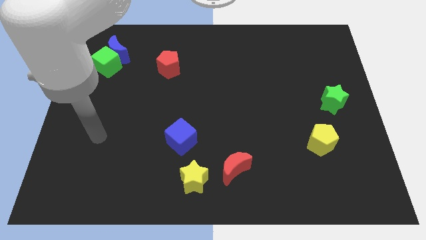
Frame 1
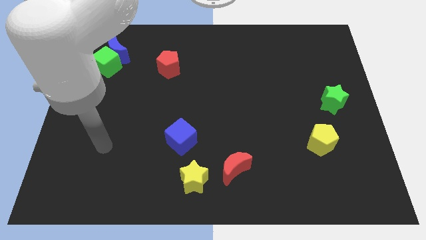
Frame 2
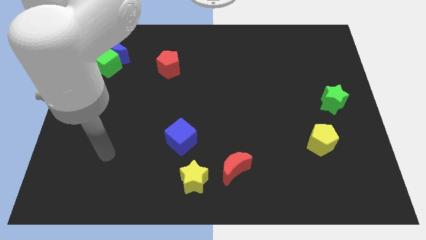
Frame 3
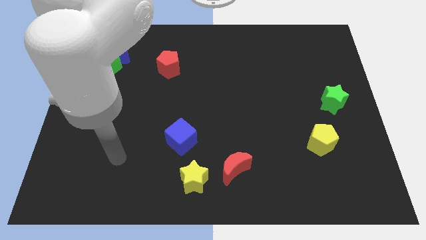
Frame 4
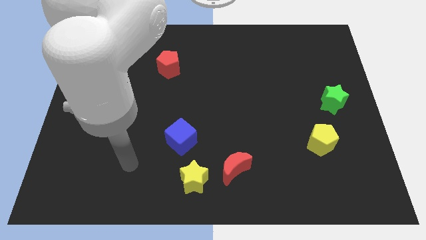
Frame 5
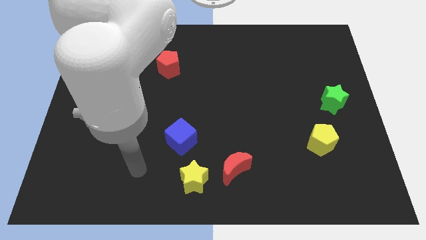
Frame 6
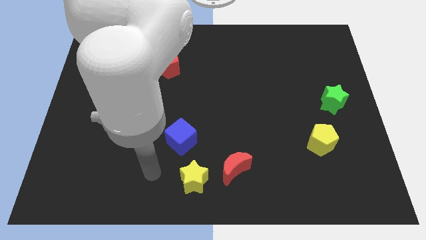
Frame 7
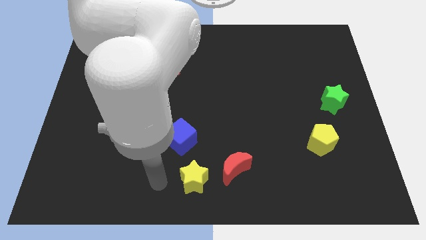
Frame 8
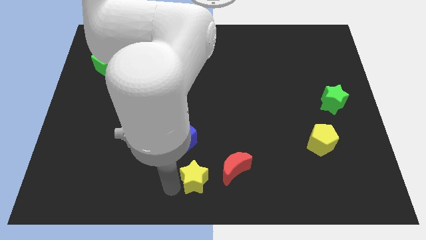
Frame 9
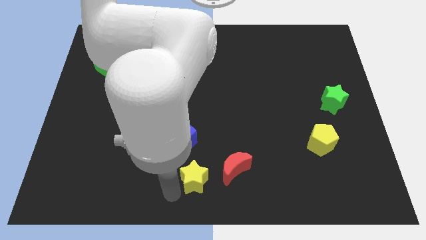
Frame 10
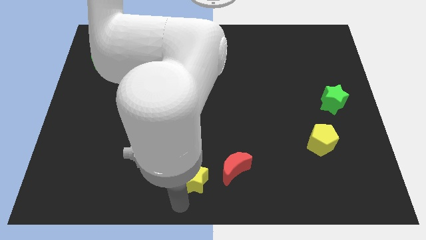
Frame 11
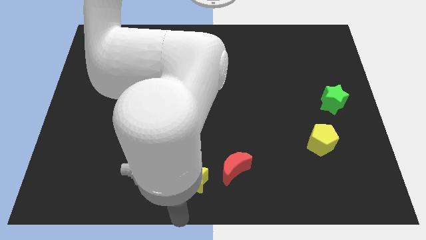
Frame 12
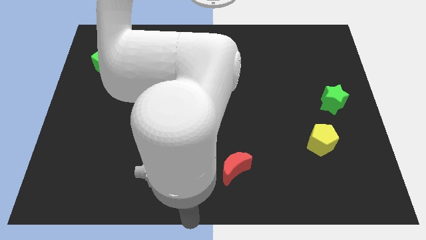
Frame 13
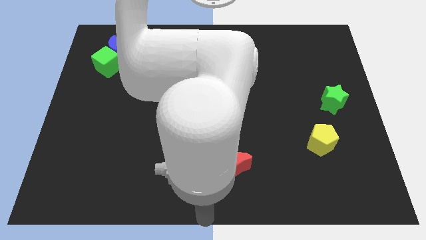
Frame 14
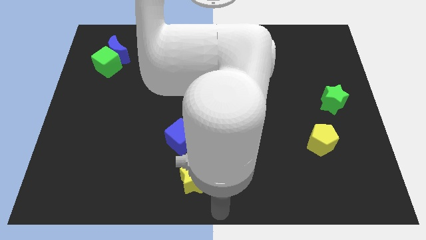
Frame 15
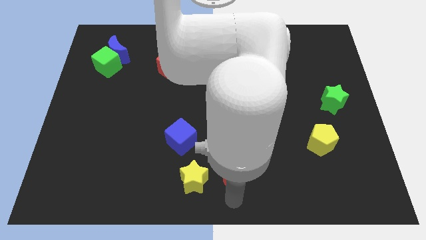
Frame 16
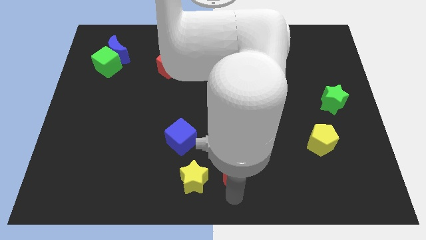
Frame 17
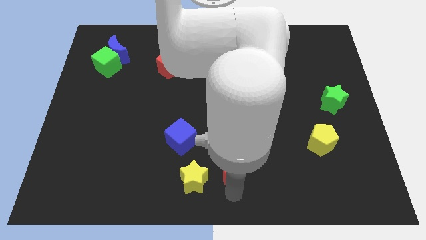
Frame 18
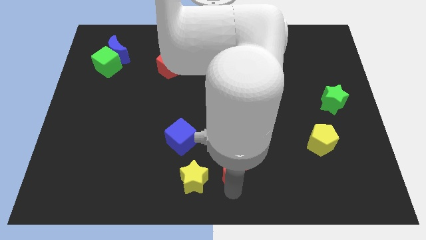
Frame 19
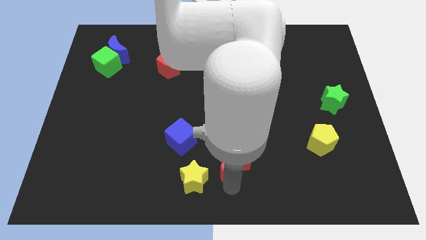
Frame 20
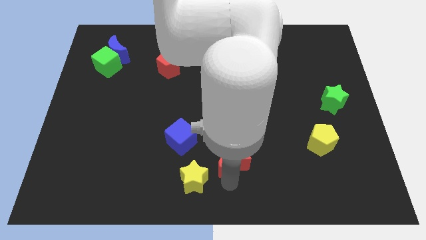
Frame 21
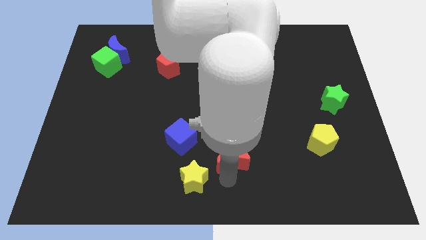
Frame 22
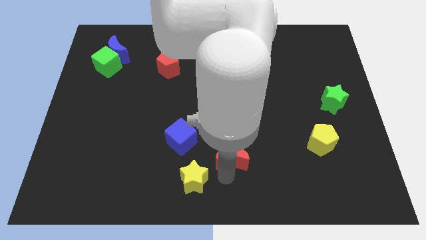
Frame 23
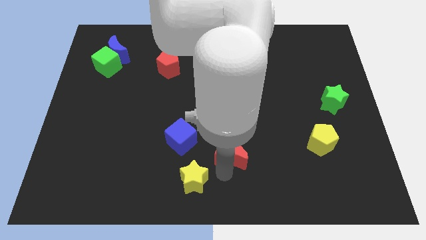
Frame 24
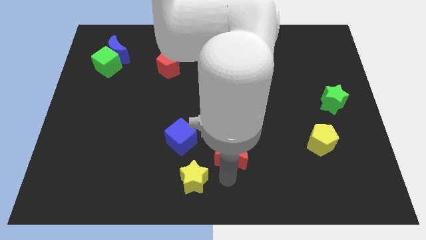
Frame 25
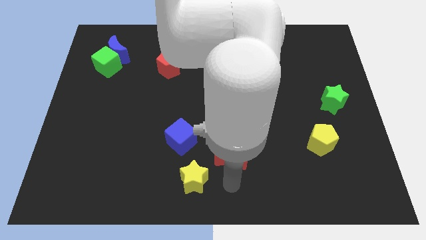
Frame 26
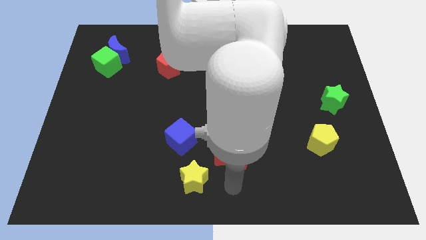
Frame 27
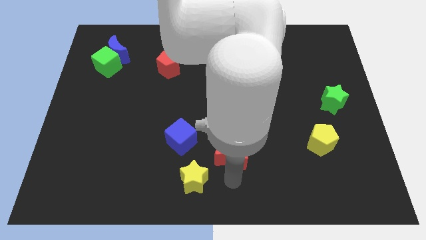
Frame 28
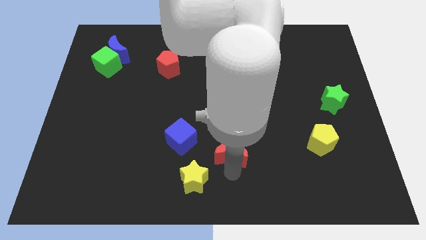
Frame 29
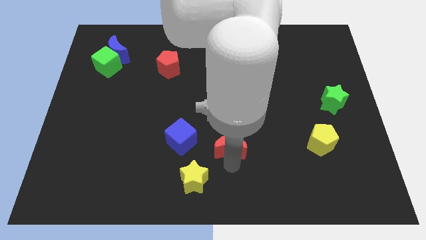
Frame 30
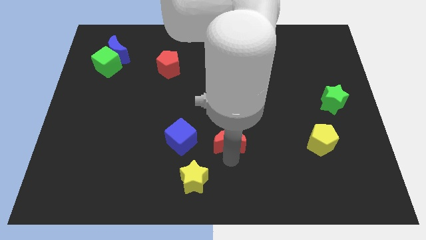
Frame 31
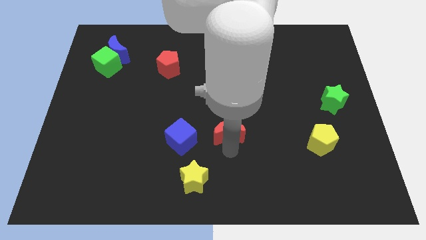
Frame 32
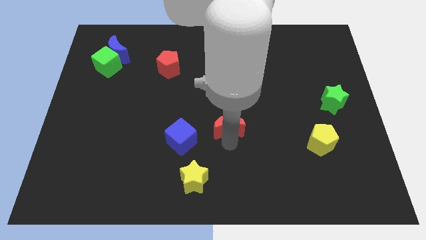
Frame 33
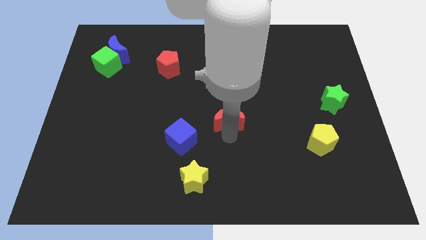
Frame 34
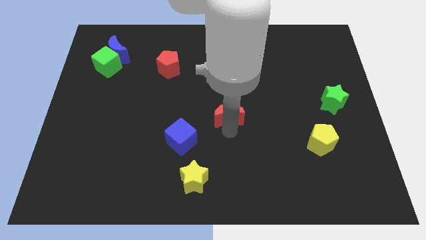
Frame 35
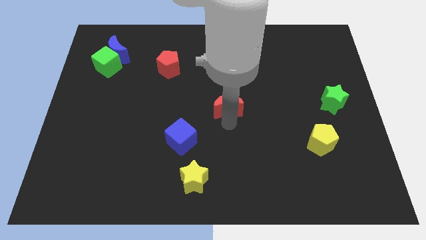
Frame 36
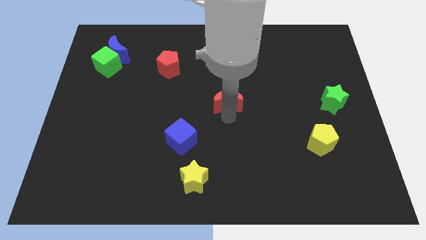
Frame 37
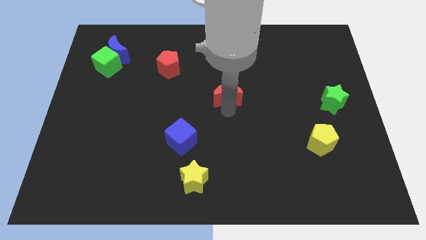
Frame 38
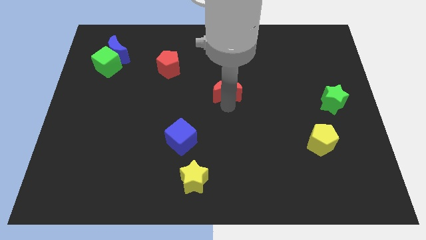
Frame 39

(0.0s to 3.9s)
move the red moon upwards

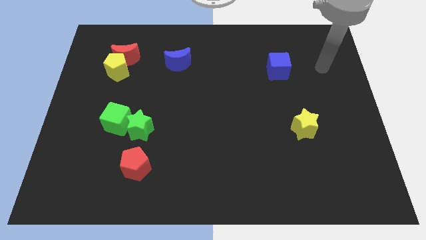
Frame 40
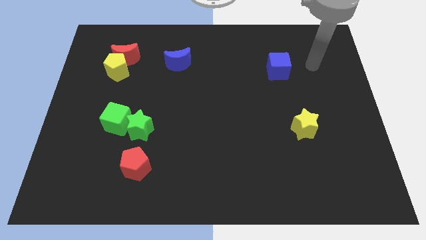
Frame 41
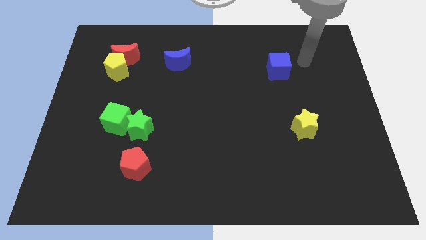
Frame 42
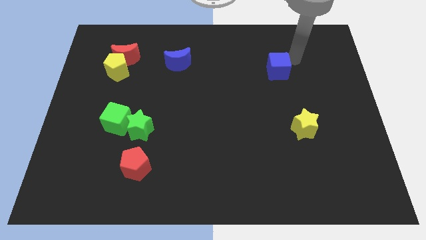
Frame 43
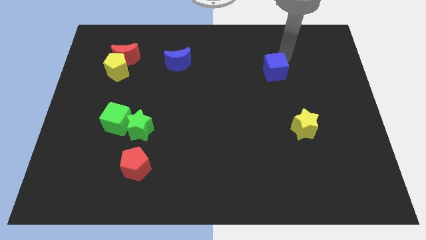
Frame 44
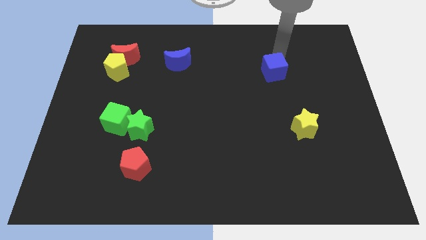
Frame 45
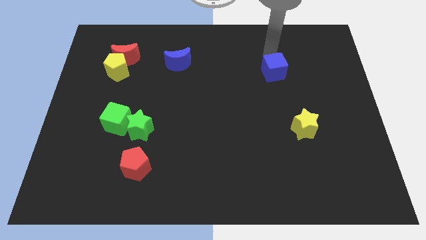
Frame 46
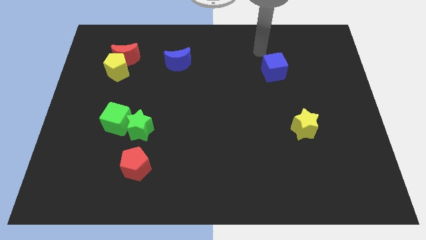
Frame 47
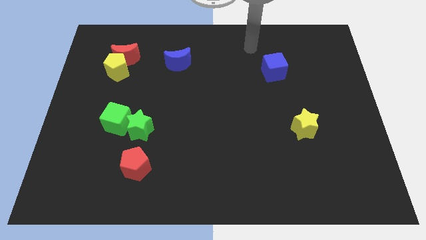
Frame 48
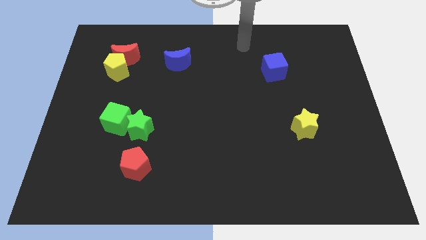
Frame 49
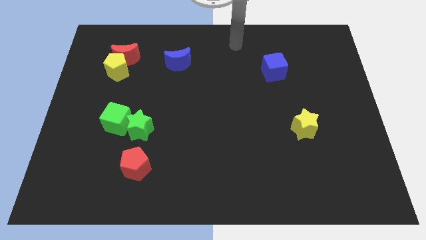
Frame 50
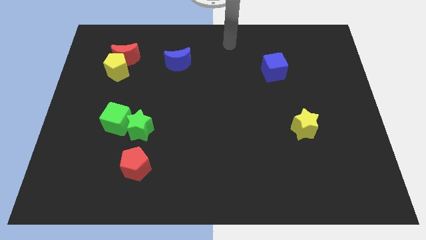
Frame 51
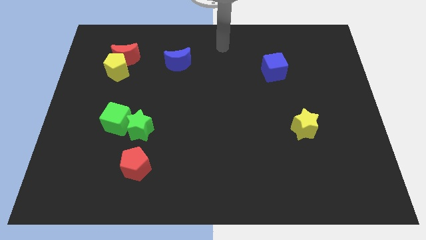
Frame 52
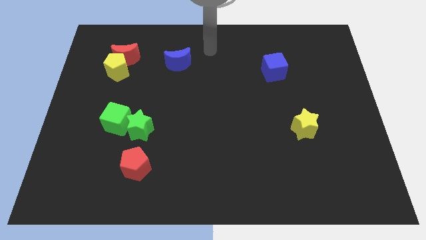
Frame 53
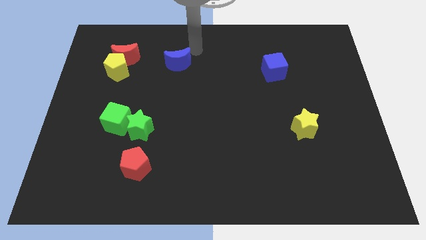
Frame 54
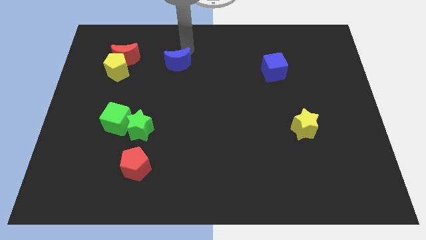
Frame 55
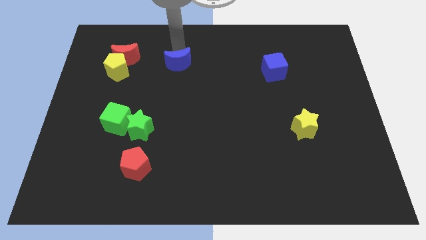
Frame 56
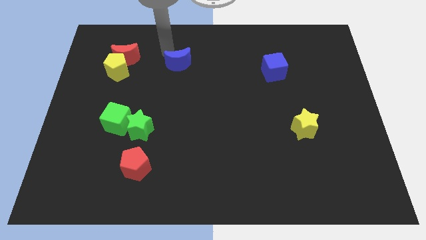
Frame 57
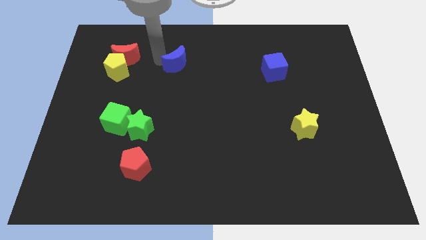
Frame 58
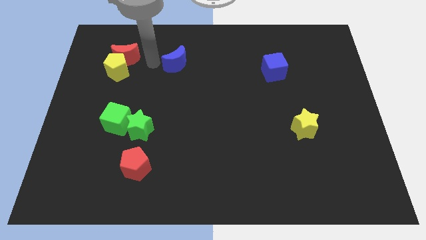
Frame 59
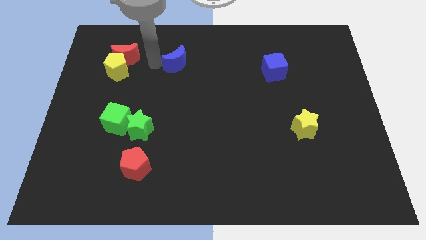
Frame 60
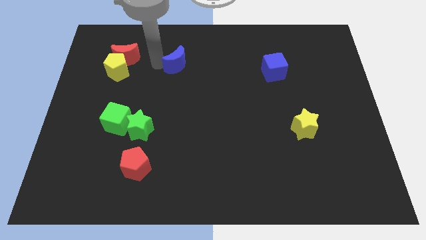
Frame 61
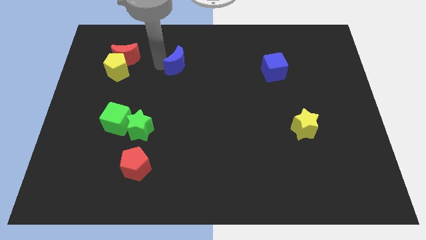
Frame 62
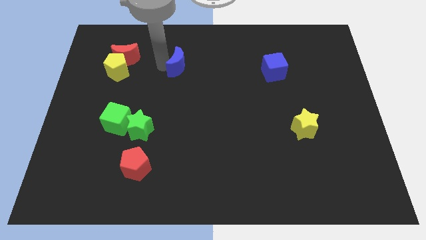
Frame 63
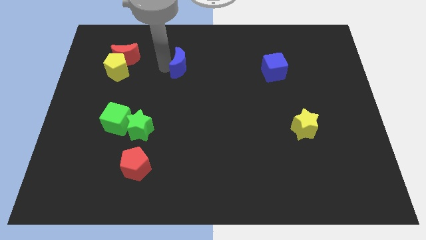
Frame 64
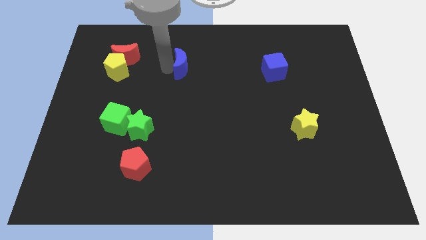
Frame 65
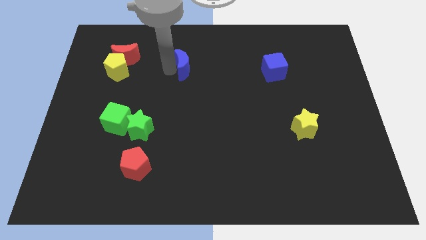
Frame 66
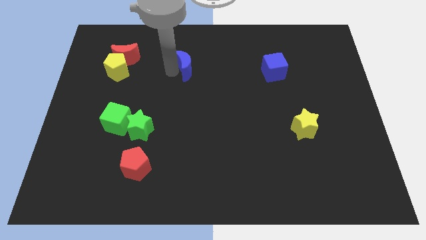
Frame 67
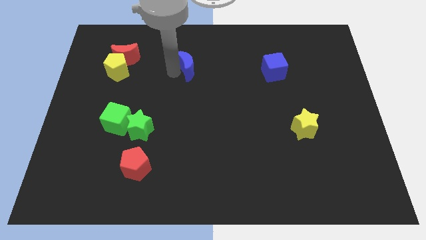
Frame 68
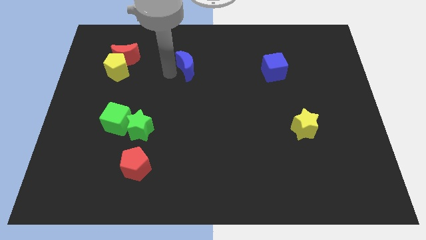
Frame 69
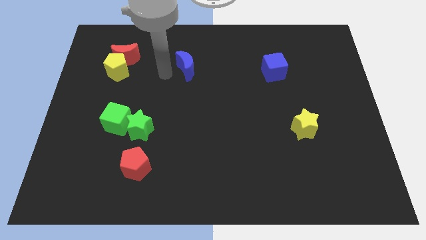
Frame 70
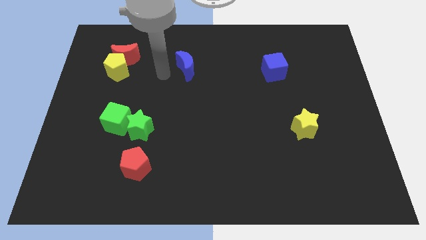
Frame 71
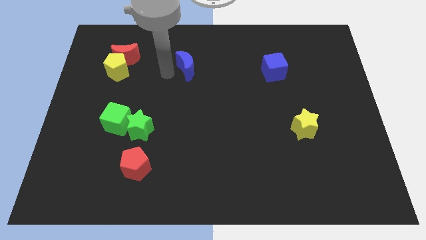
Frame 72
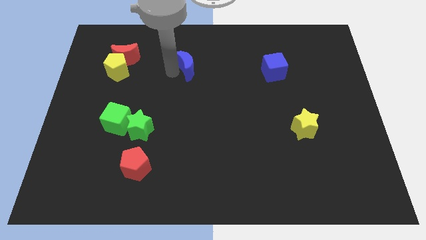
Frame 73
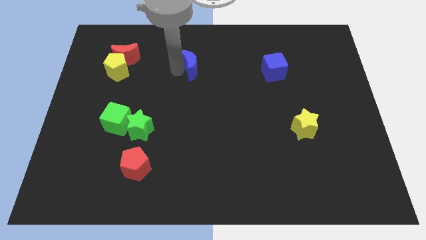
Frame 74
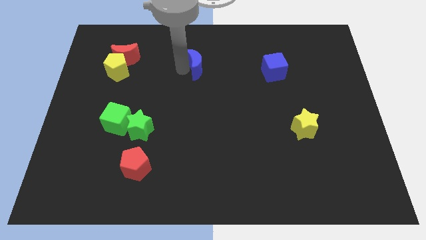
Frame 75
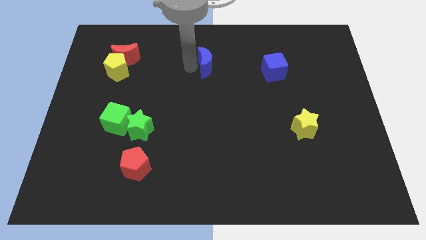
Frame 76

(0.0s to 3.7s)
move the blue moon right somewhat

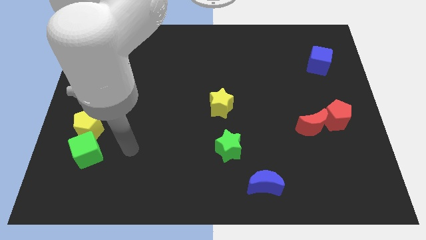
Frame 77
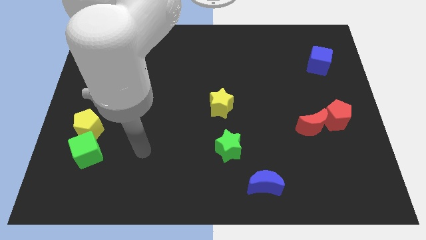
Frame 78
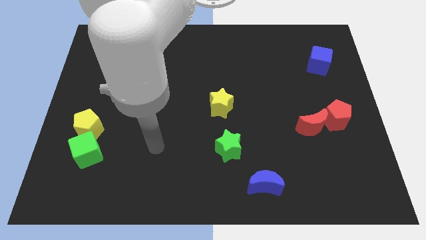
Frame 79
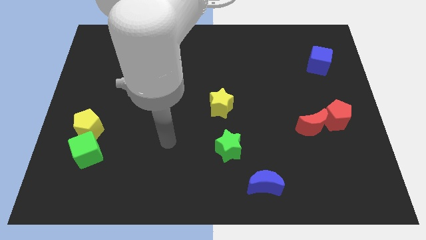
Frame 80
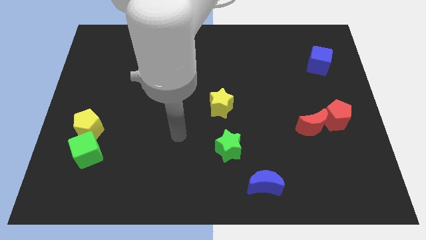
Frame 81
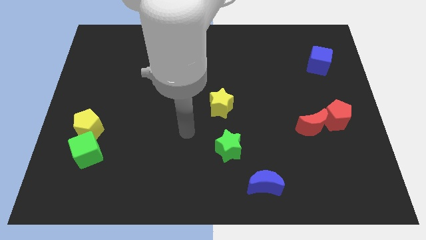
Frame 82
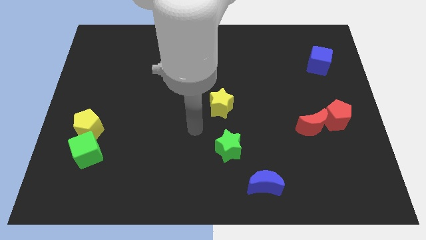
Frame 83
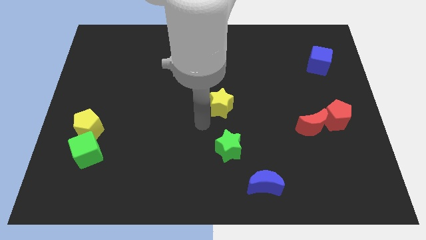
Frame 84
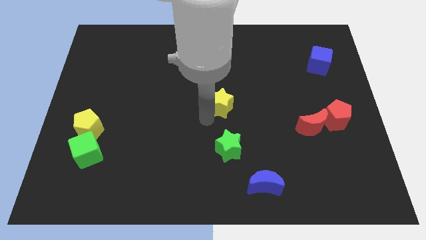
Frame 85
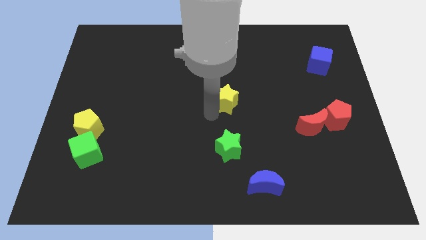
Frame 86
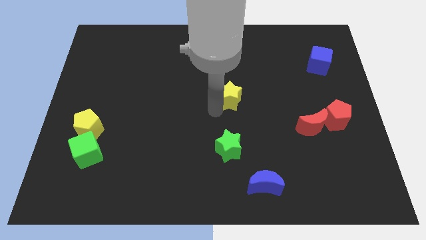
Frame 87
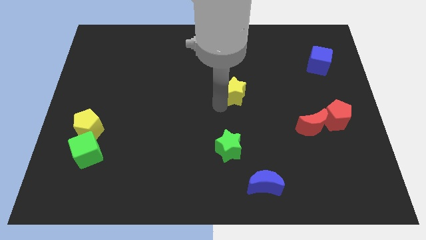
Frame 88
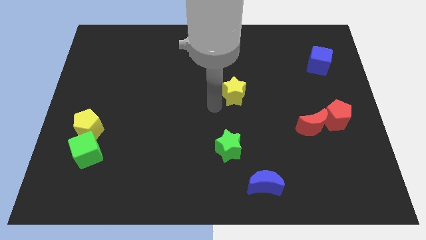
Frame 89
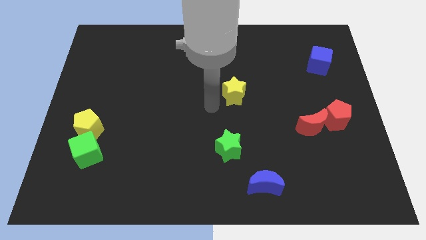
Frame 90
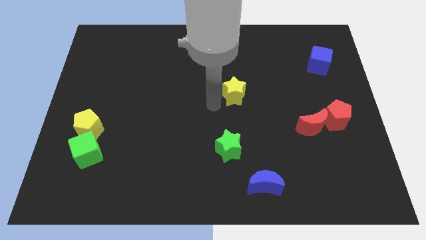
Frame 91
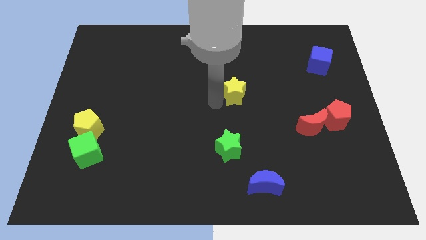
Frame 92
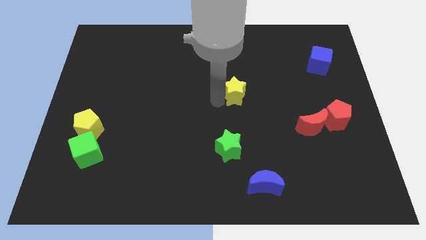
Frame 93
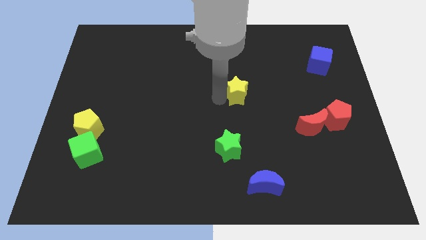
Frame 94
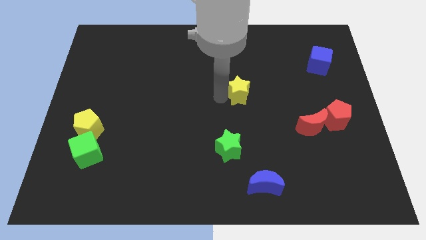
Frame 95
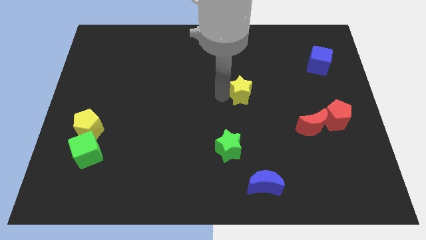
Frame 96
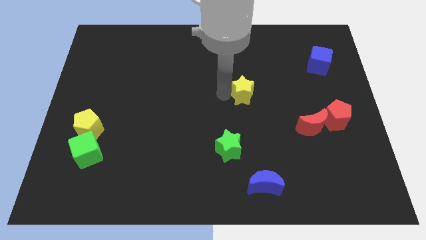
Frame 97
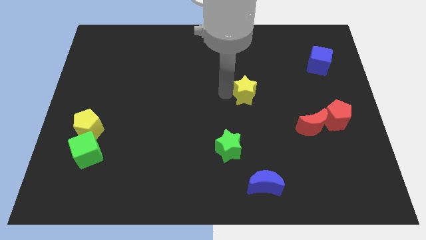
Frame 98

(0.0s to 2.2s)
slide the yellow star up and then right a little
